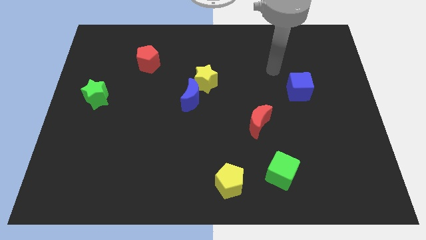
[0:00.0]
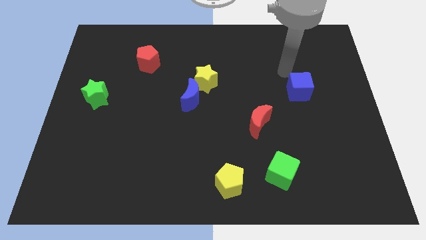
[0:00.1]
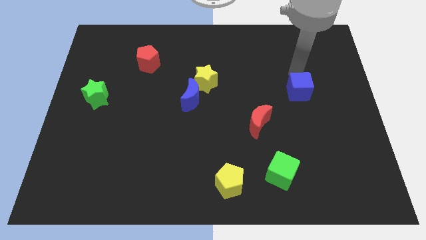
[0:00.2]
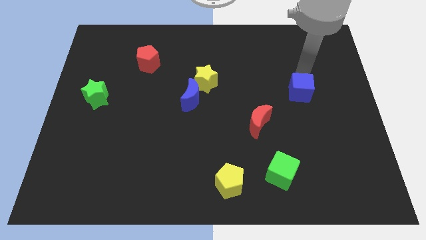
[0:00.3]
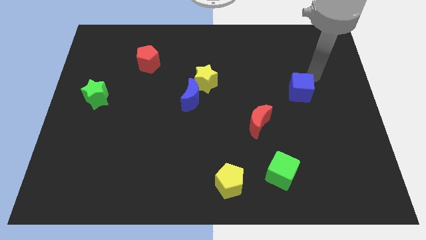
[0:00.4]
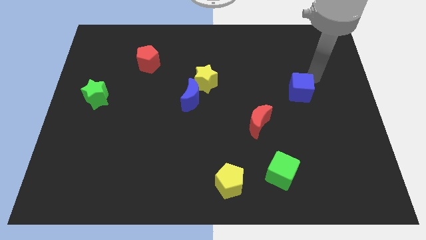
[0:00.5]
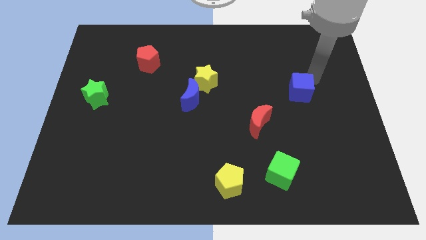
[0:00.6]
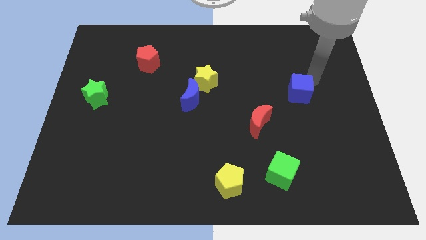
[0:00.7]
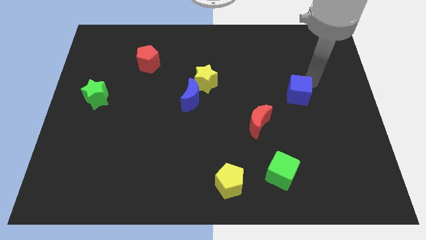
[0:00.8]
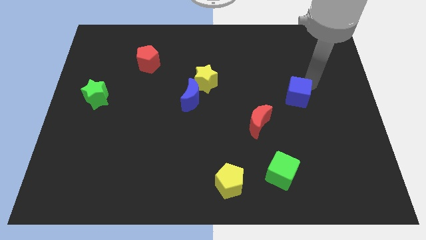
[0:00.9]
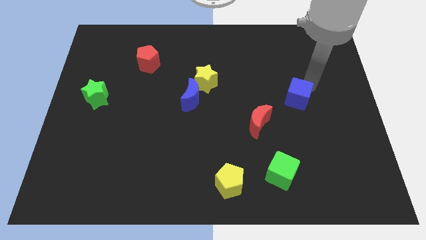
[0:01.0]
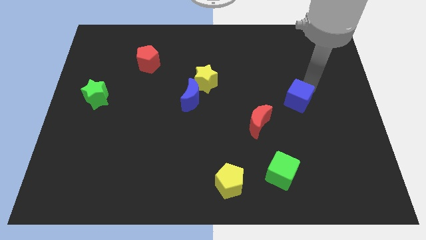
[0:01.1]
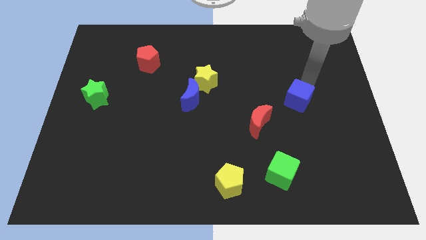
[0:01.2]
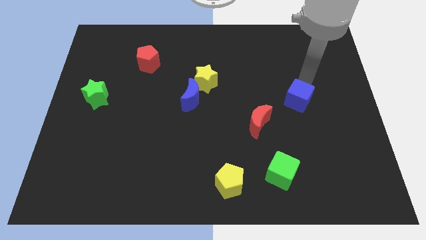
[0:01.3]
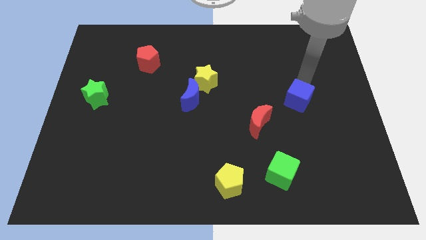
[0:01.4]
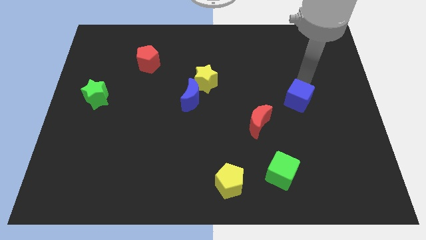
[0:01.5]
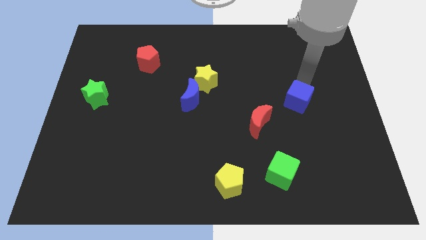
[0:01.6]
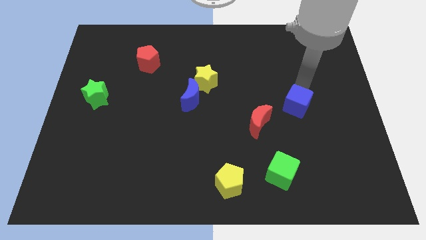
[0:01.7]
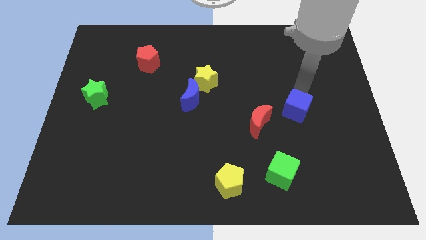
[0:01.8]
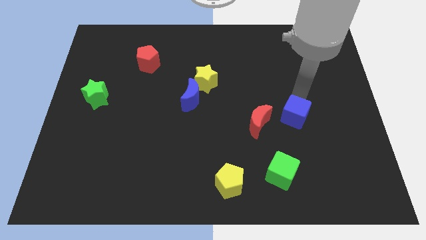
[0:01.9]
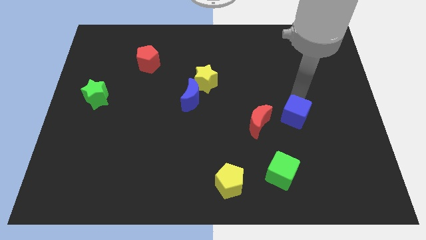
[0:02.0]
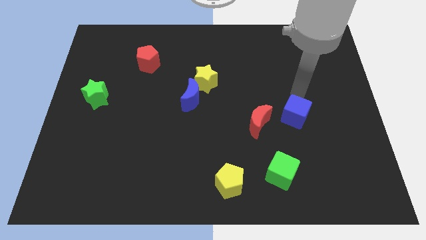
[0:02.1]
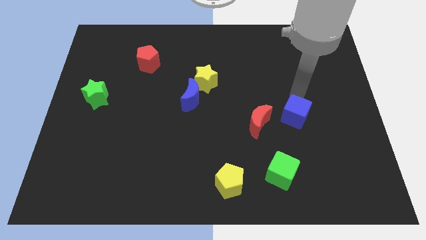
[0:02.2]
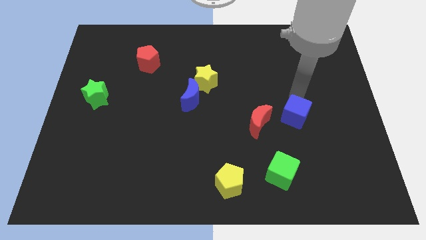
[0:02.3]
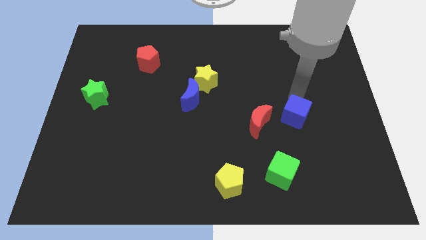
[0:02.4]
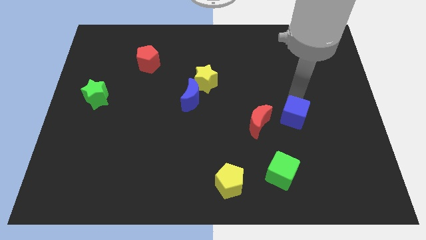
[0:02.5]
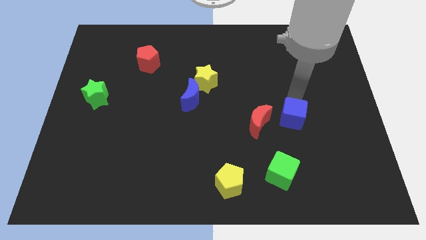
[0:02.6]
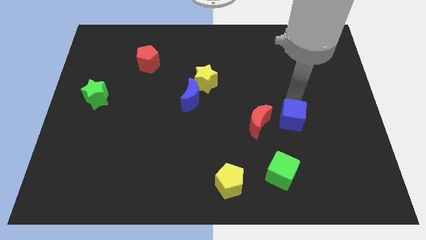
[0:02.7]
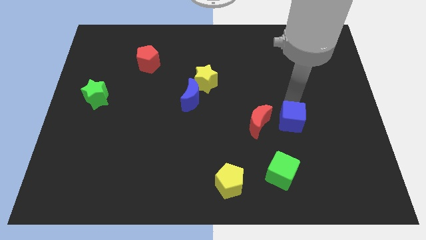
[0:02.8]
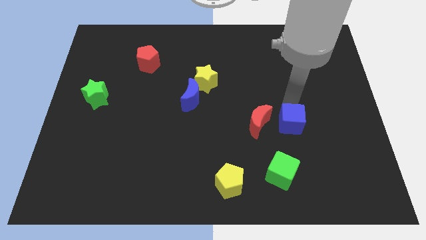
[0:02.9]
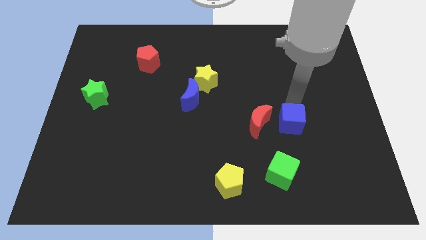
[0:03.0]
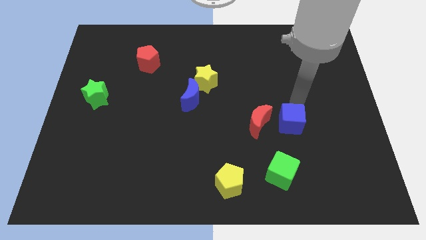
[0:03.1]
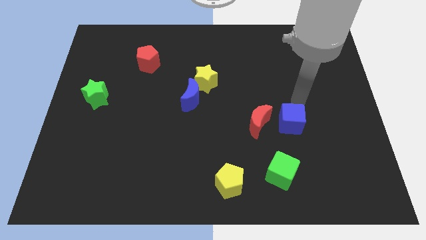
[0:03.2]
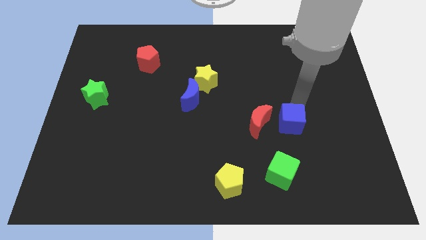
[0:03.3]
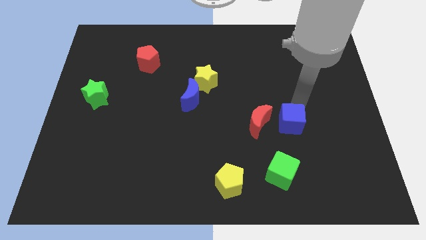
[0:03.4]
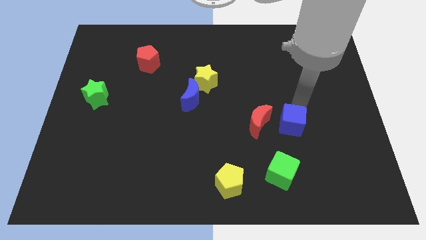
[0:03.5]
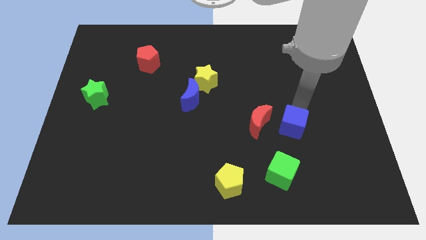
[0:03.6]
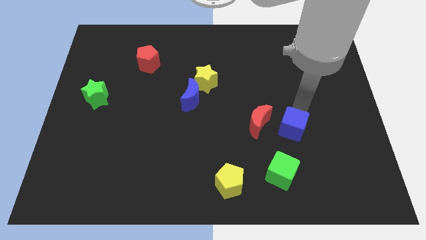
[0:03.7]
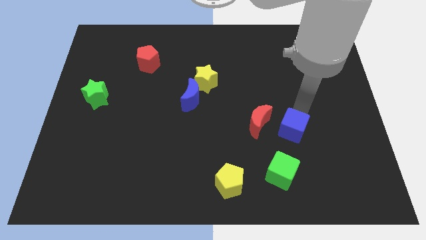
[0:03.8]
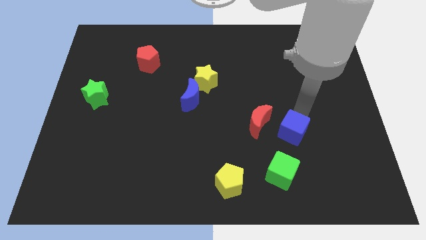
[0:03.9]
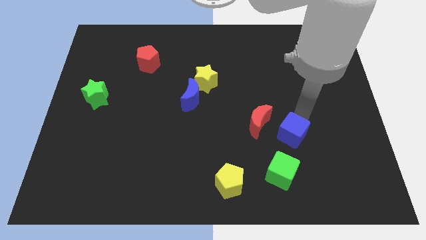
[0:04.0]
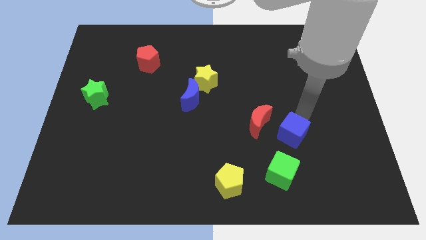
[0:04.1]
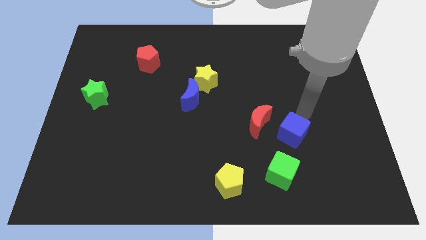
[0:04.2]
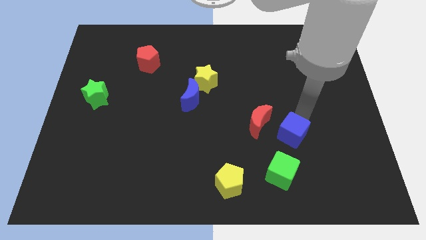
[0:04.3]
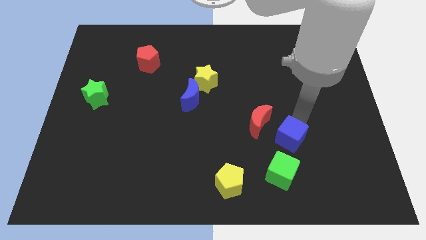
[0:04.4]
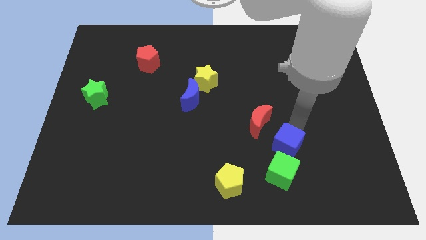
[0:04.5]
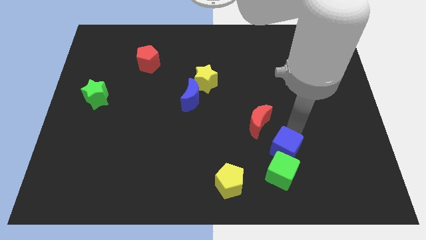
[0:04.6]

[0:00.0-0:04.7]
put the blue cube to the green cube

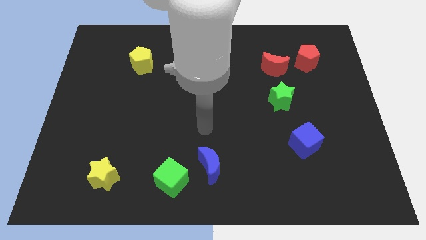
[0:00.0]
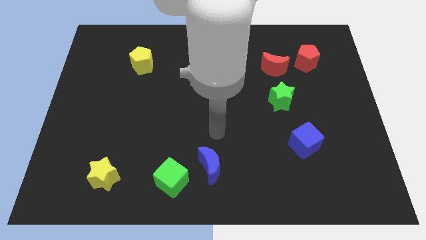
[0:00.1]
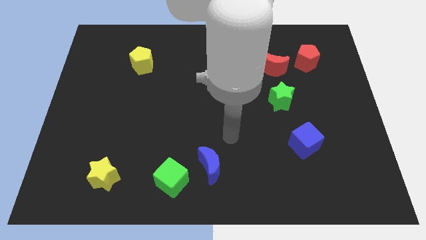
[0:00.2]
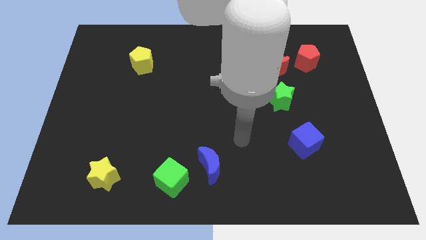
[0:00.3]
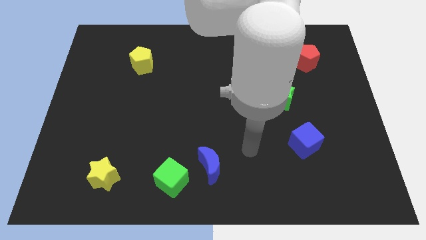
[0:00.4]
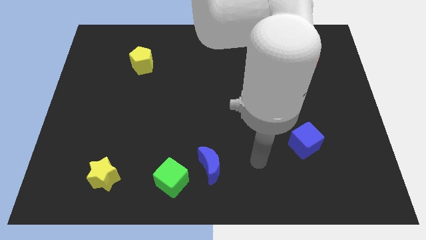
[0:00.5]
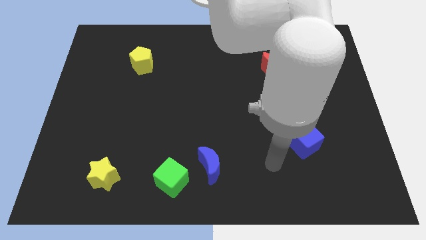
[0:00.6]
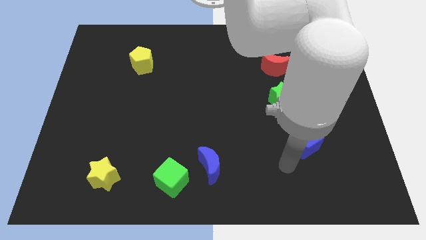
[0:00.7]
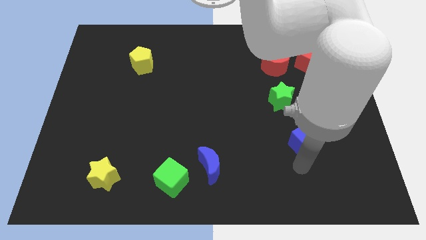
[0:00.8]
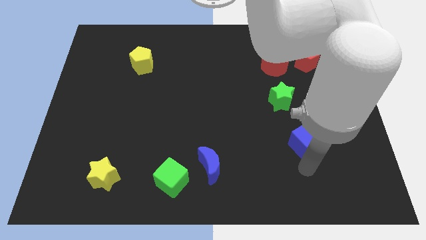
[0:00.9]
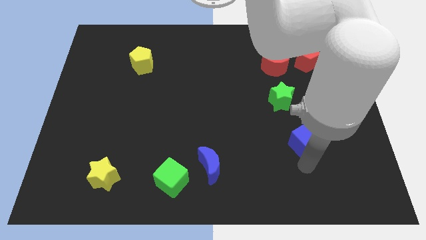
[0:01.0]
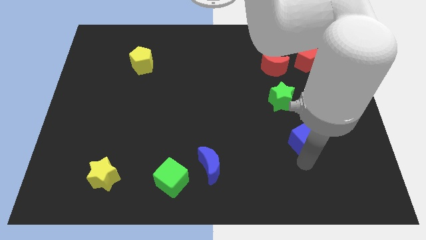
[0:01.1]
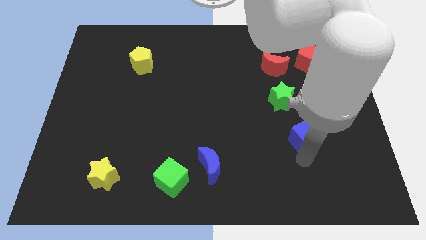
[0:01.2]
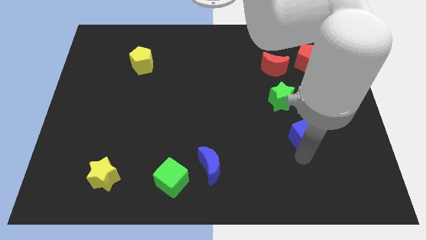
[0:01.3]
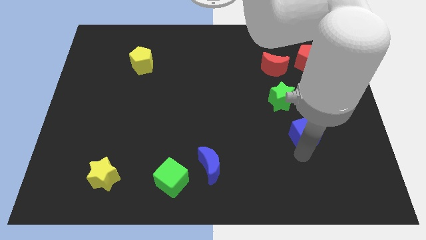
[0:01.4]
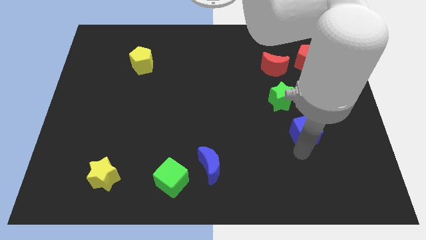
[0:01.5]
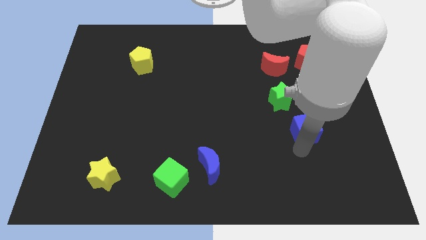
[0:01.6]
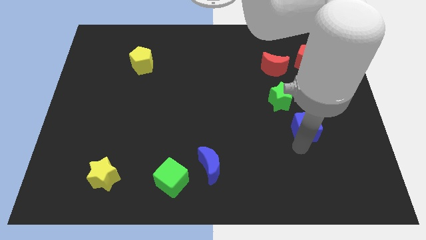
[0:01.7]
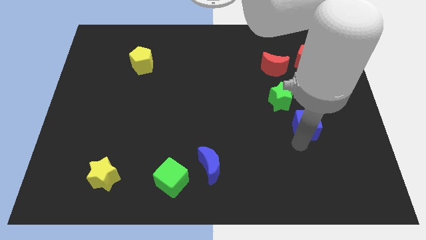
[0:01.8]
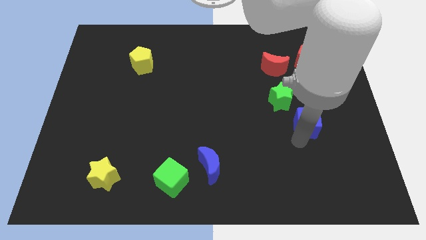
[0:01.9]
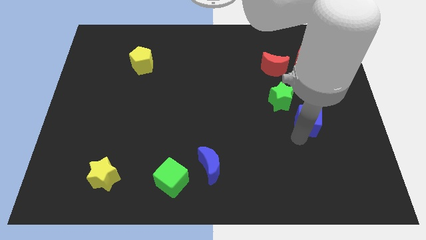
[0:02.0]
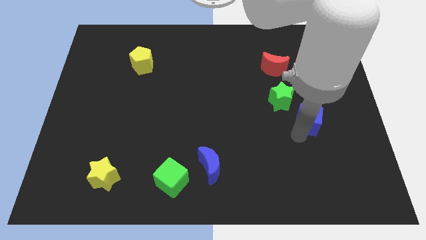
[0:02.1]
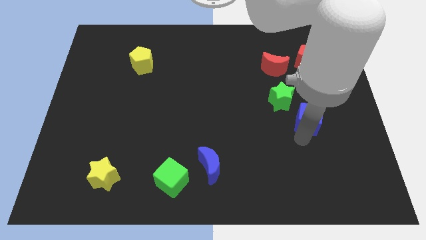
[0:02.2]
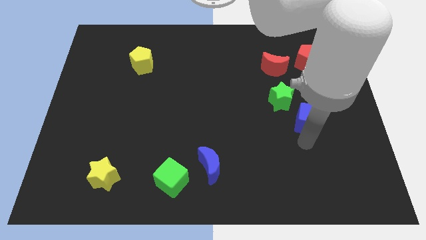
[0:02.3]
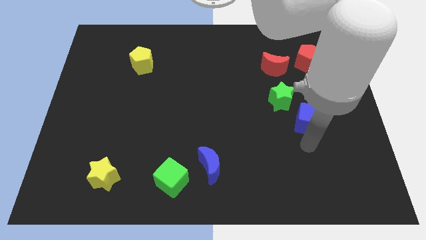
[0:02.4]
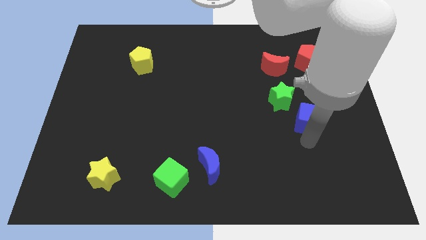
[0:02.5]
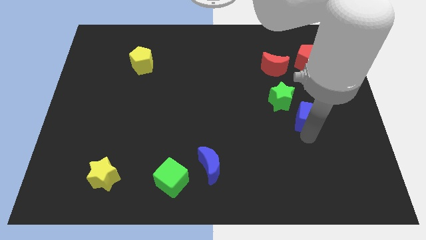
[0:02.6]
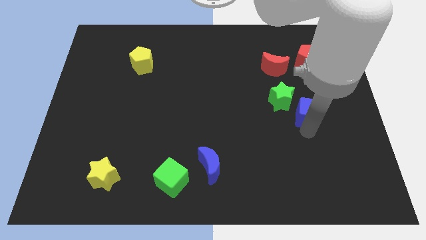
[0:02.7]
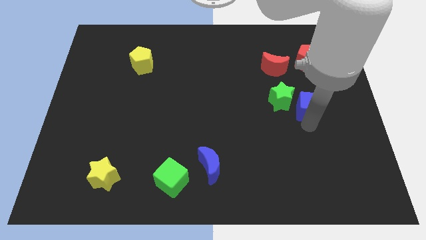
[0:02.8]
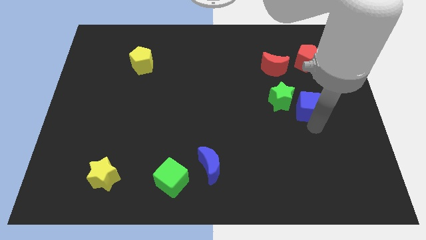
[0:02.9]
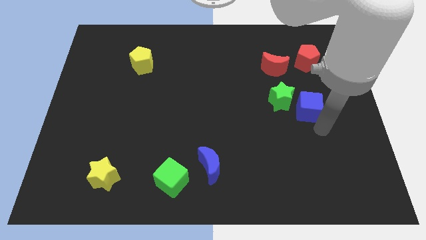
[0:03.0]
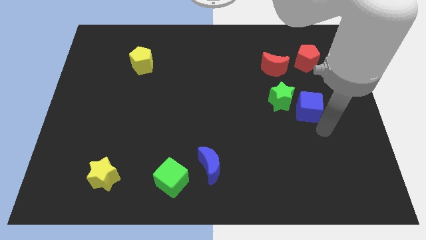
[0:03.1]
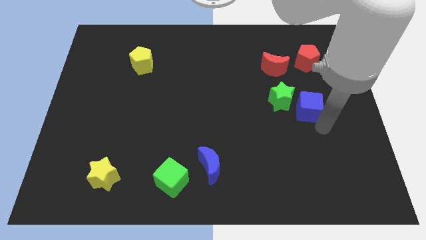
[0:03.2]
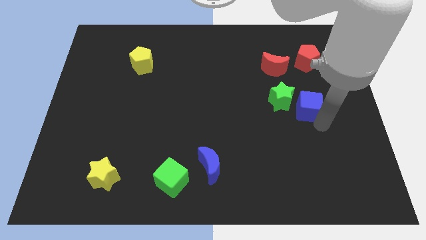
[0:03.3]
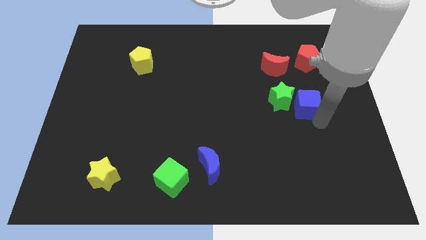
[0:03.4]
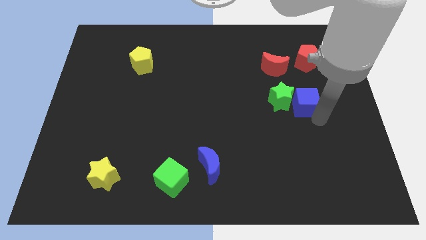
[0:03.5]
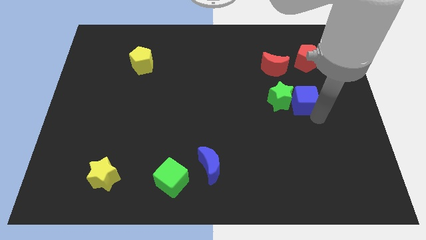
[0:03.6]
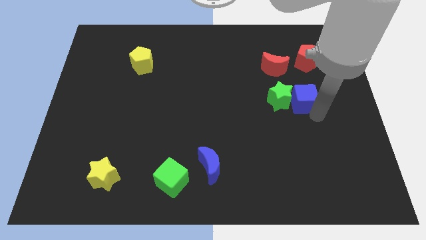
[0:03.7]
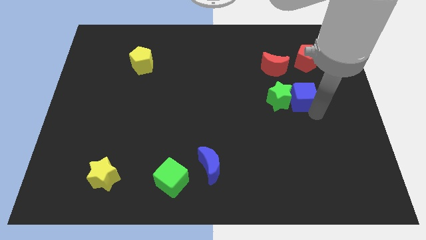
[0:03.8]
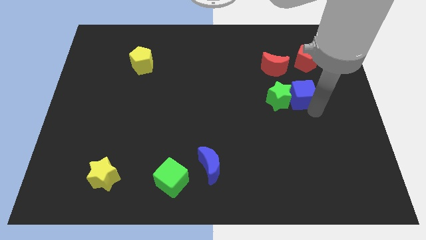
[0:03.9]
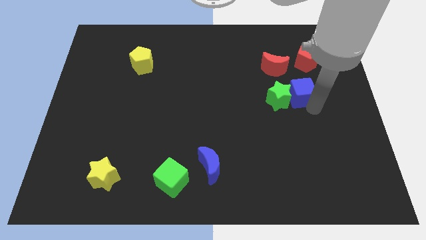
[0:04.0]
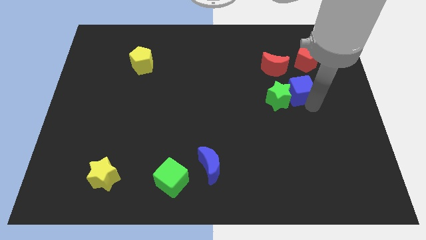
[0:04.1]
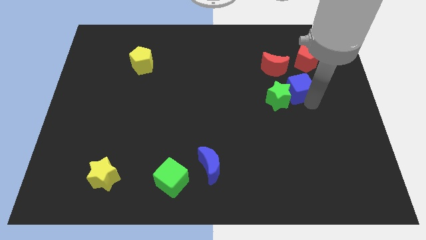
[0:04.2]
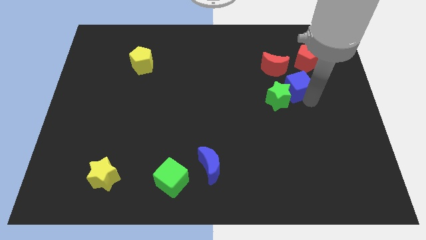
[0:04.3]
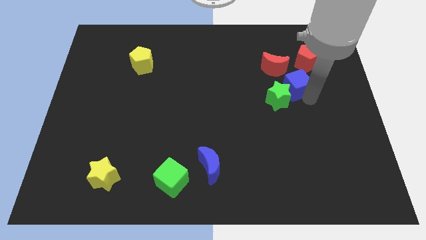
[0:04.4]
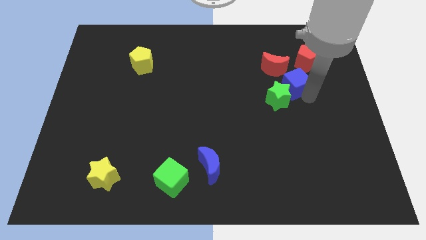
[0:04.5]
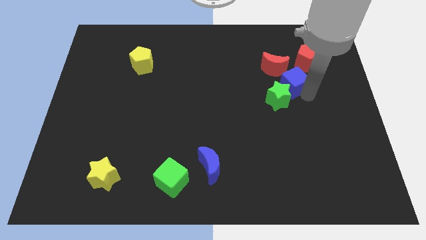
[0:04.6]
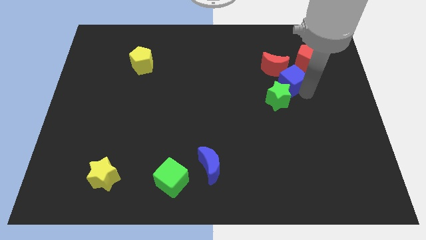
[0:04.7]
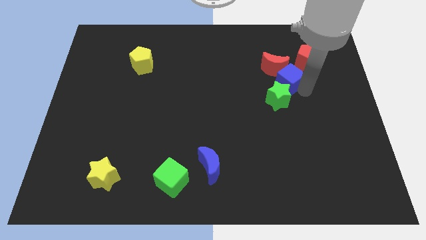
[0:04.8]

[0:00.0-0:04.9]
put the blue cube close to the red moon
